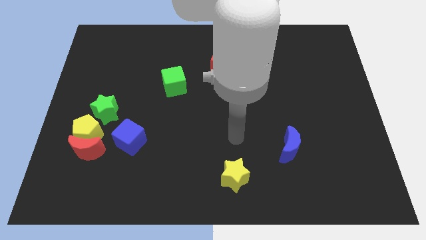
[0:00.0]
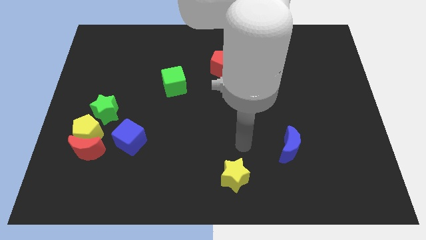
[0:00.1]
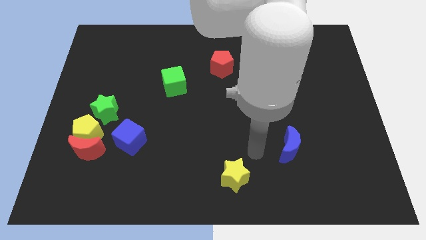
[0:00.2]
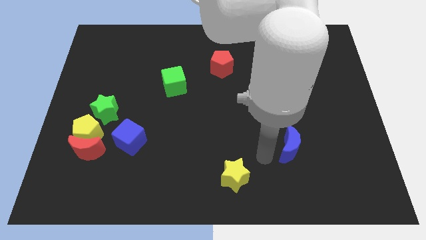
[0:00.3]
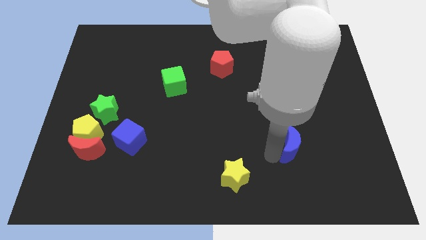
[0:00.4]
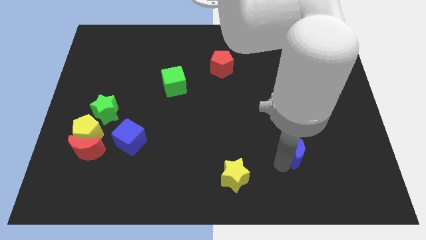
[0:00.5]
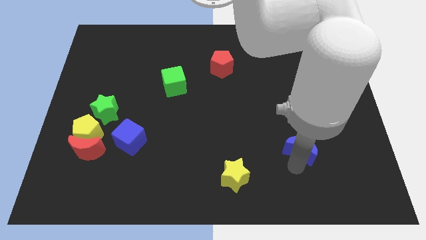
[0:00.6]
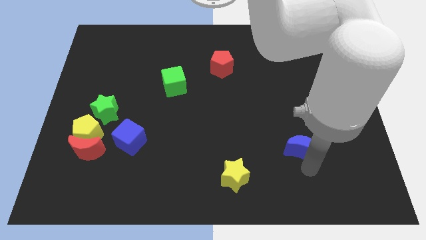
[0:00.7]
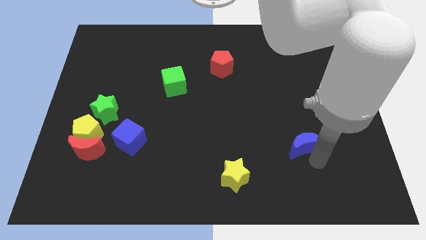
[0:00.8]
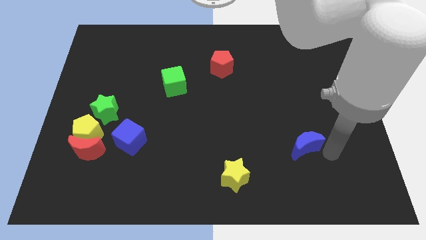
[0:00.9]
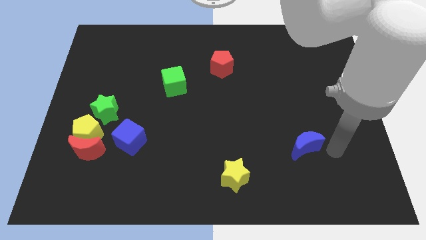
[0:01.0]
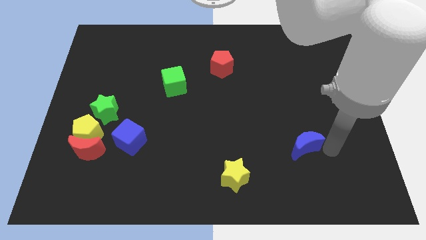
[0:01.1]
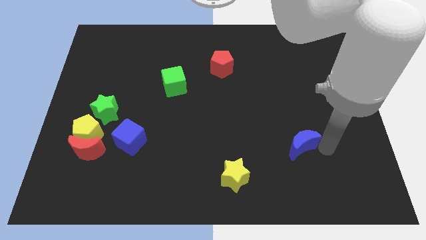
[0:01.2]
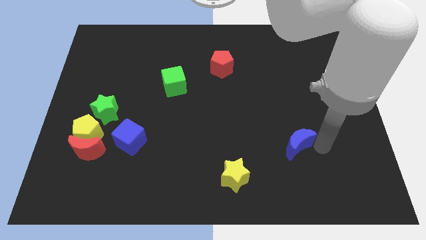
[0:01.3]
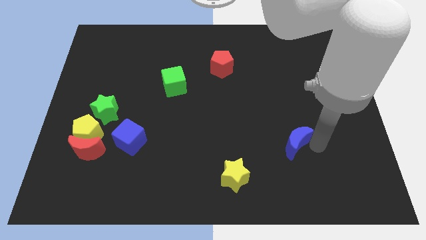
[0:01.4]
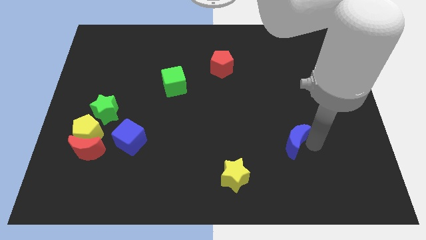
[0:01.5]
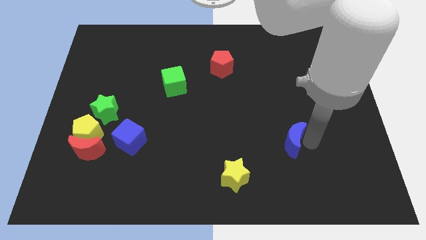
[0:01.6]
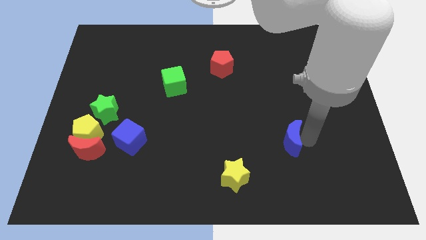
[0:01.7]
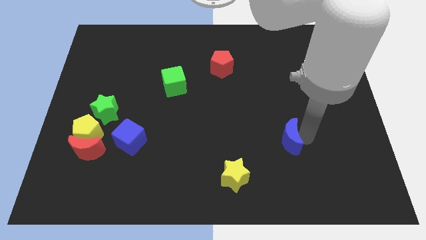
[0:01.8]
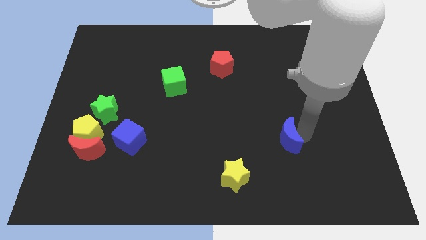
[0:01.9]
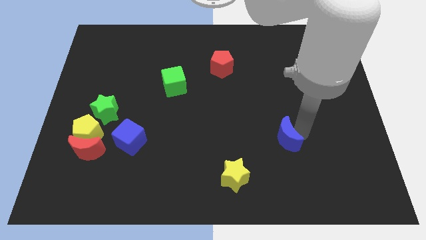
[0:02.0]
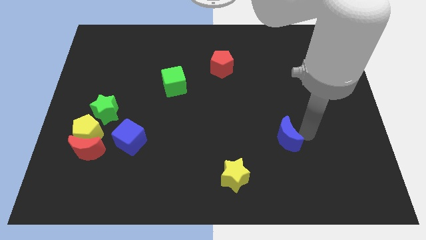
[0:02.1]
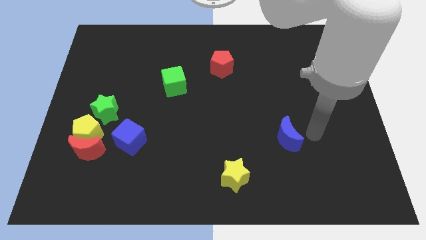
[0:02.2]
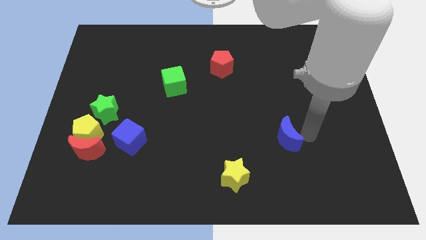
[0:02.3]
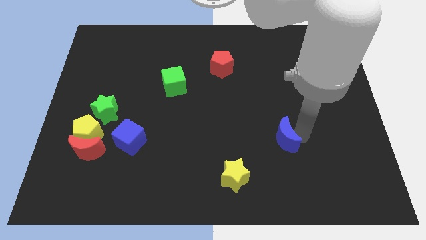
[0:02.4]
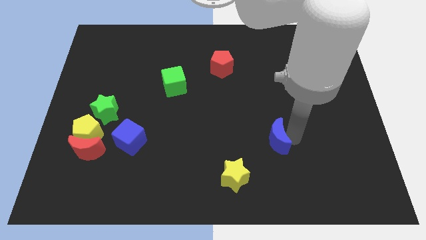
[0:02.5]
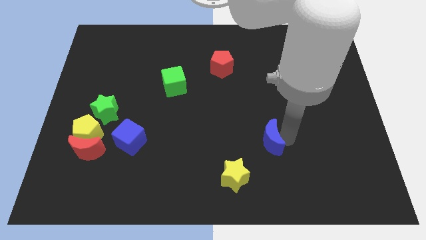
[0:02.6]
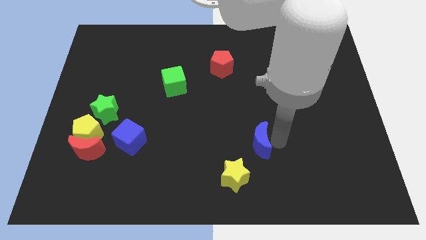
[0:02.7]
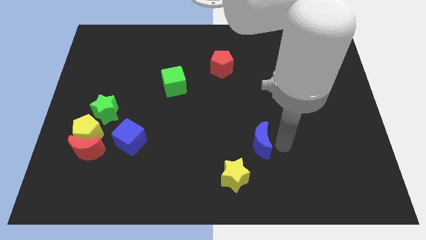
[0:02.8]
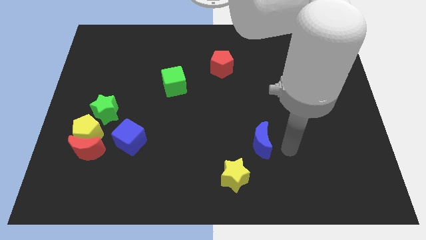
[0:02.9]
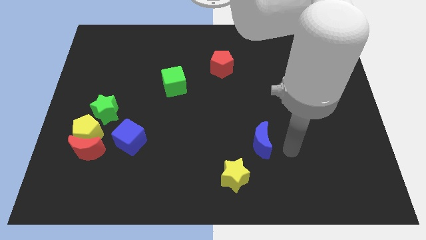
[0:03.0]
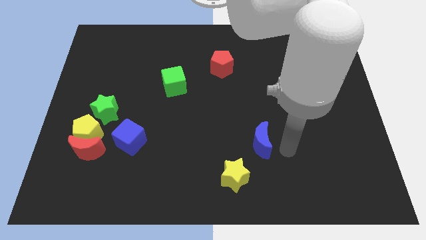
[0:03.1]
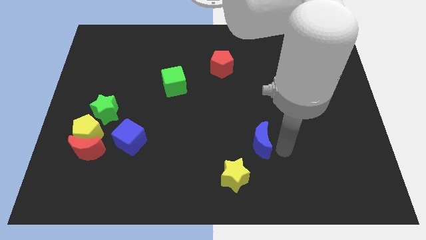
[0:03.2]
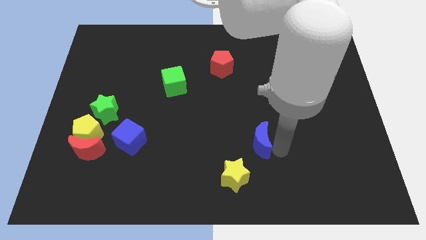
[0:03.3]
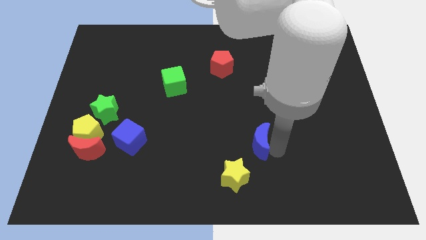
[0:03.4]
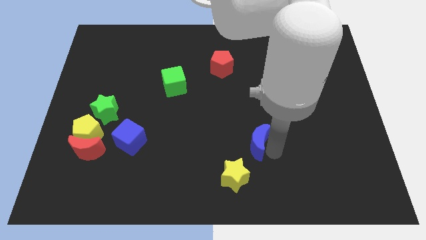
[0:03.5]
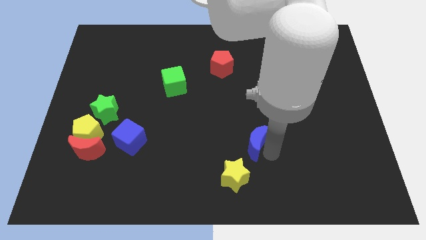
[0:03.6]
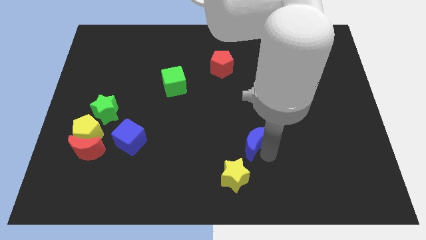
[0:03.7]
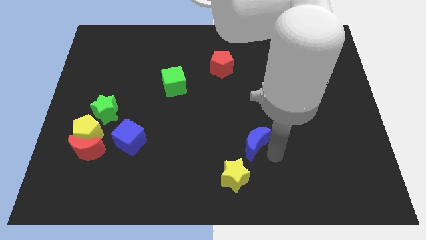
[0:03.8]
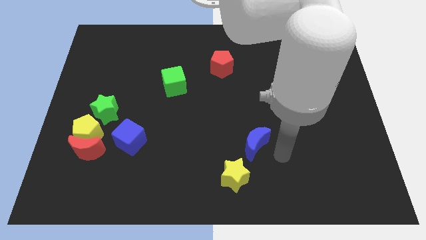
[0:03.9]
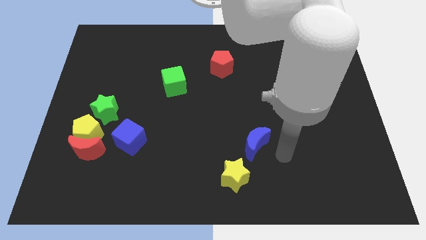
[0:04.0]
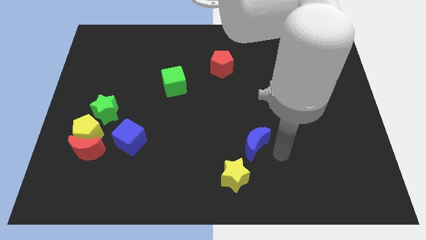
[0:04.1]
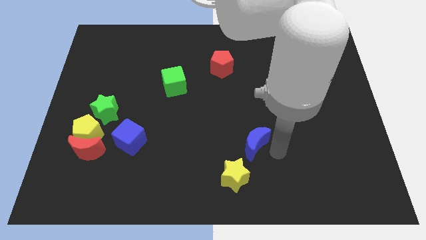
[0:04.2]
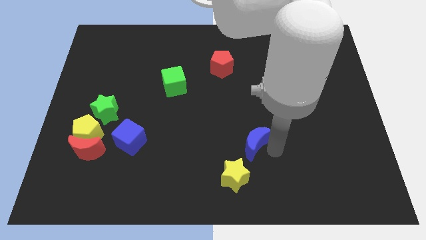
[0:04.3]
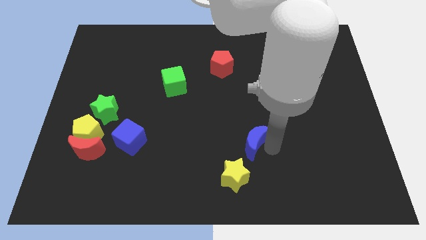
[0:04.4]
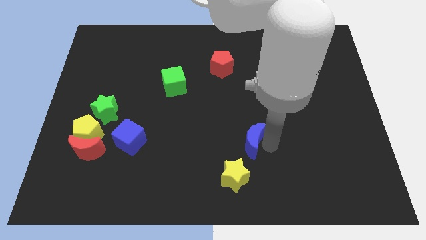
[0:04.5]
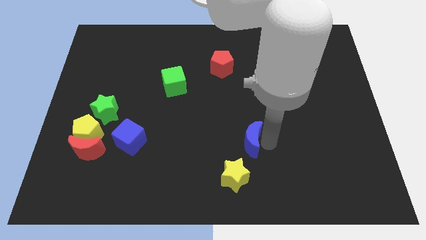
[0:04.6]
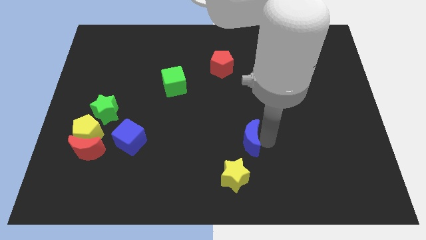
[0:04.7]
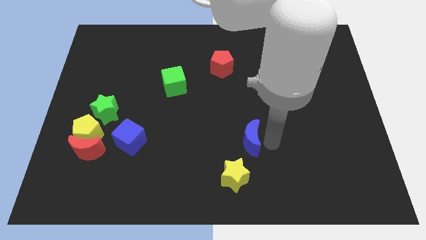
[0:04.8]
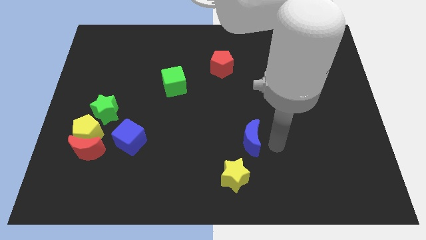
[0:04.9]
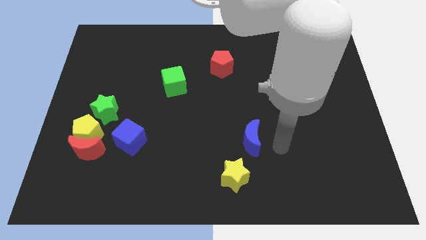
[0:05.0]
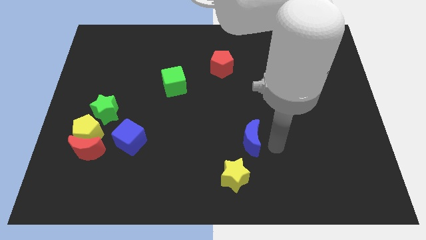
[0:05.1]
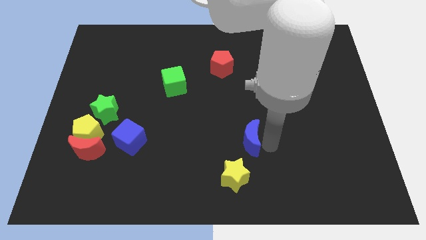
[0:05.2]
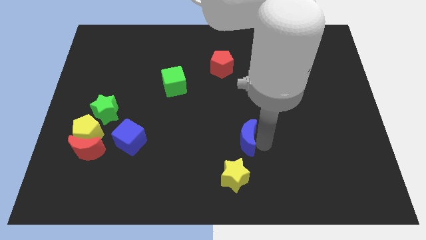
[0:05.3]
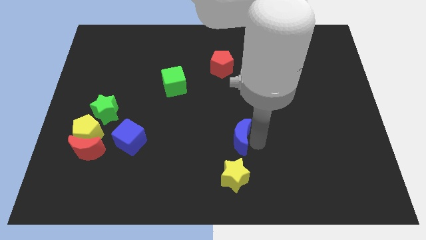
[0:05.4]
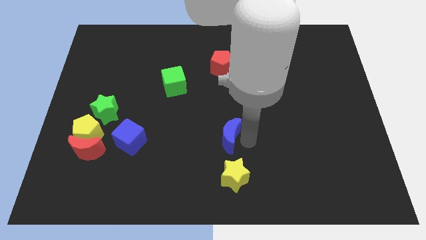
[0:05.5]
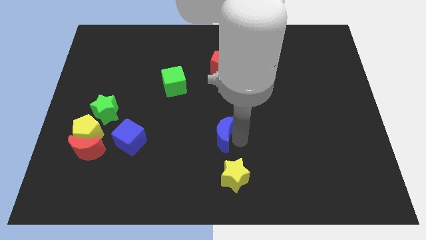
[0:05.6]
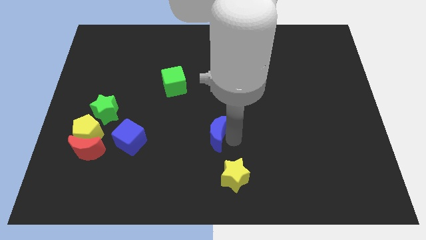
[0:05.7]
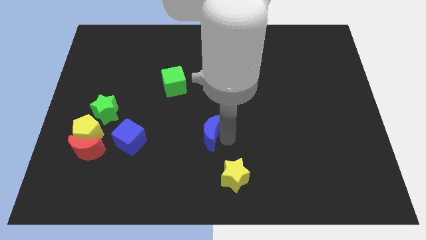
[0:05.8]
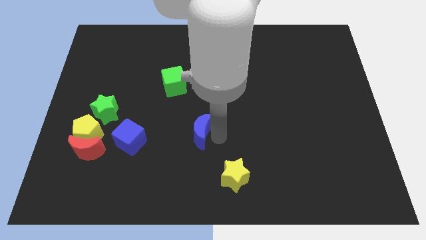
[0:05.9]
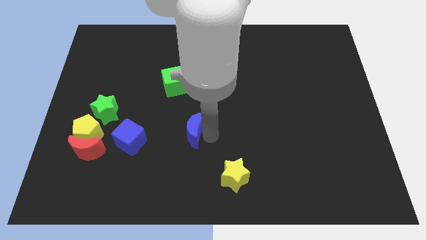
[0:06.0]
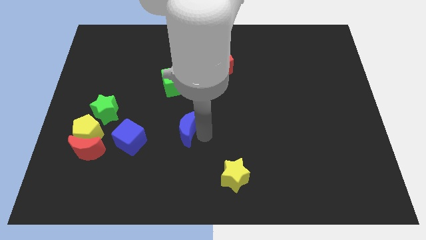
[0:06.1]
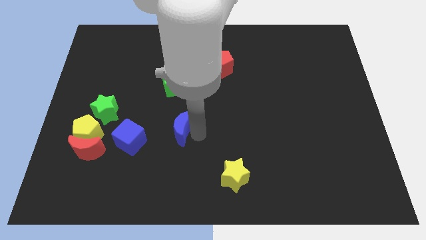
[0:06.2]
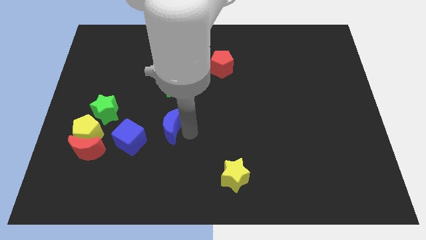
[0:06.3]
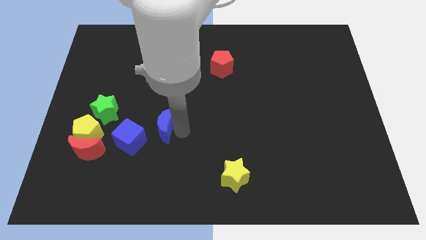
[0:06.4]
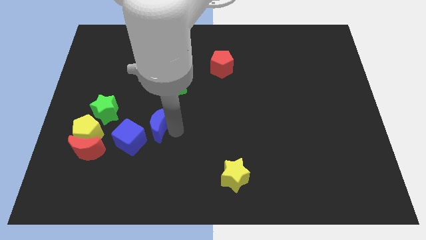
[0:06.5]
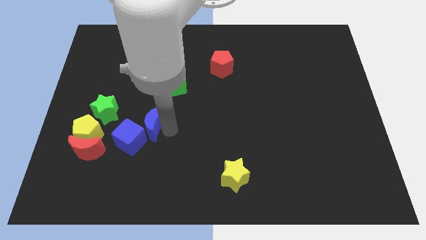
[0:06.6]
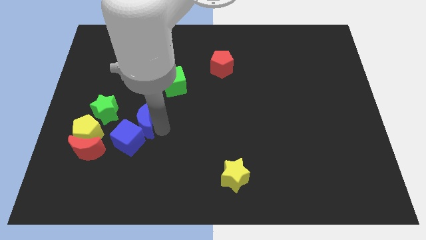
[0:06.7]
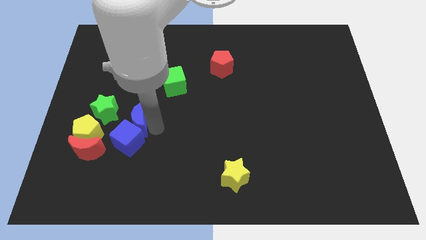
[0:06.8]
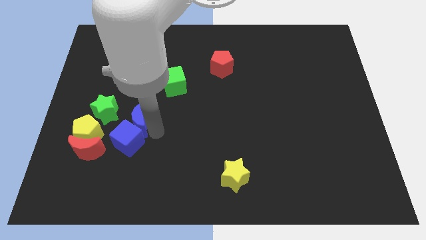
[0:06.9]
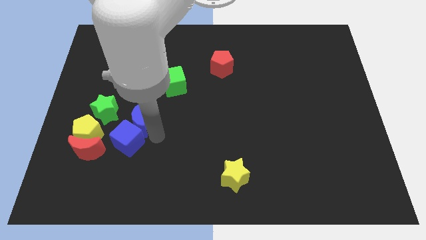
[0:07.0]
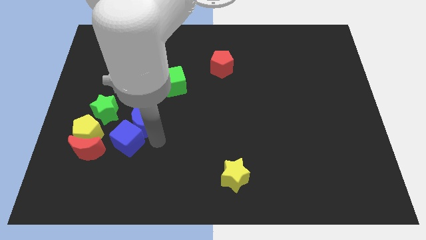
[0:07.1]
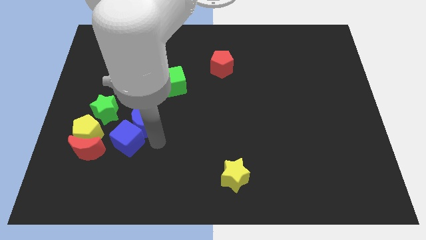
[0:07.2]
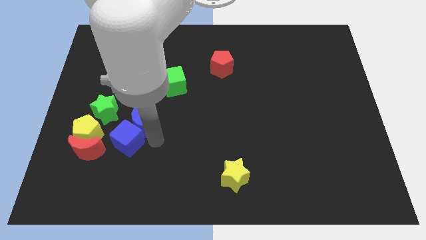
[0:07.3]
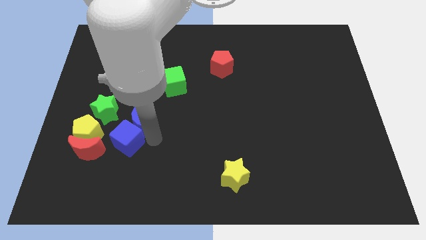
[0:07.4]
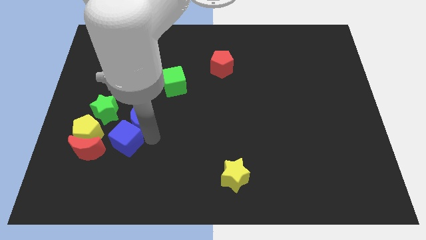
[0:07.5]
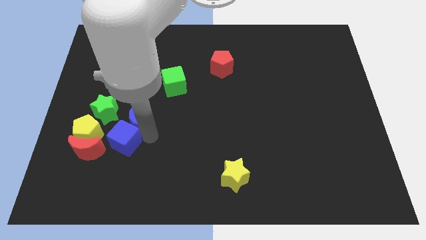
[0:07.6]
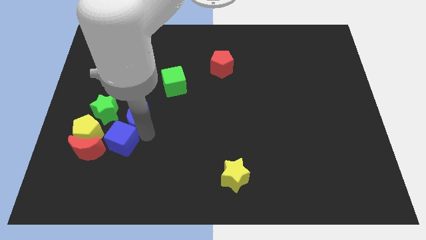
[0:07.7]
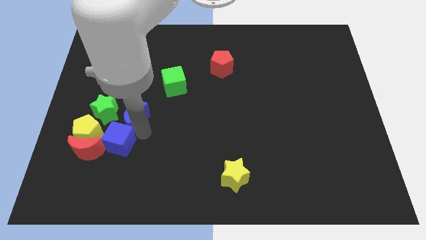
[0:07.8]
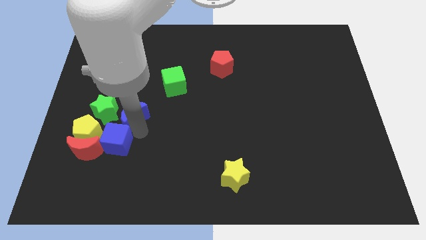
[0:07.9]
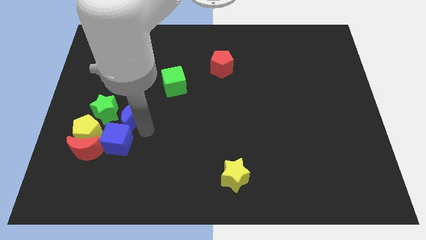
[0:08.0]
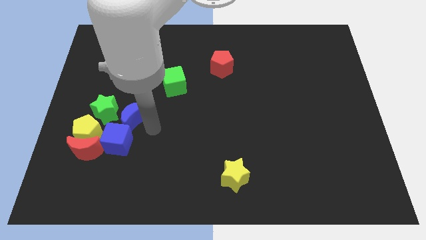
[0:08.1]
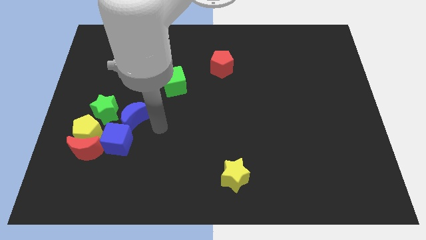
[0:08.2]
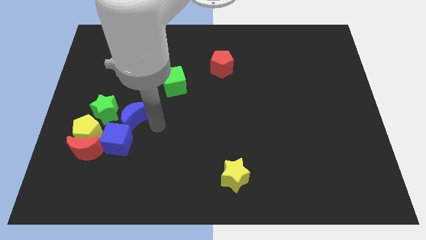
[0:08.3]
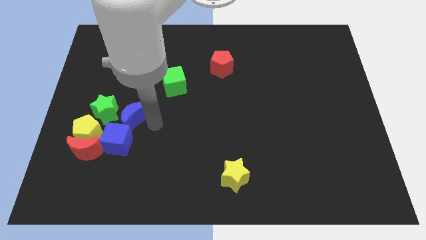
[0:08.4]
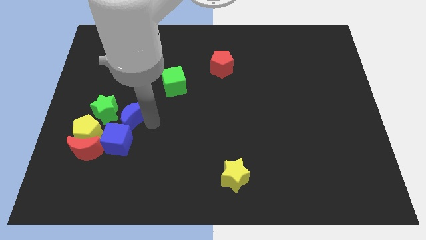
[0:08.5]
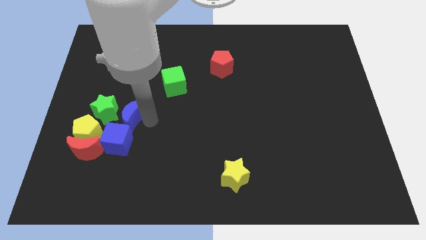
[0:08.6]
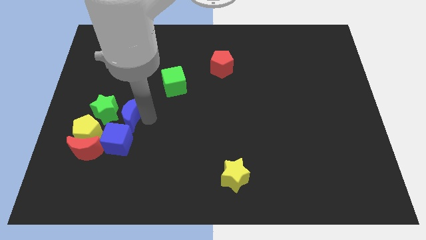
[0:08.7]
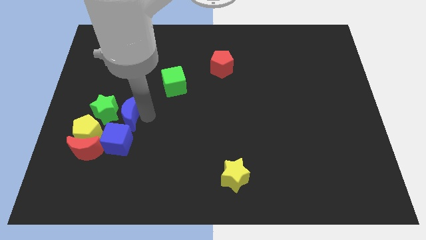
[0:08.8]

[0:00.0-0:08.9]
push the blue moon towards the green star
